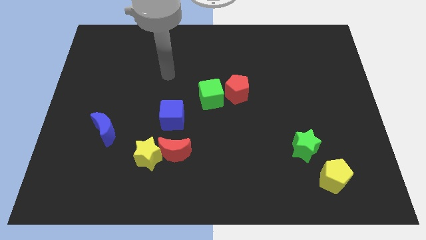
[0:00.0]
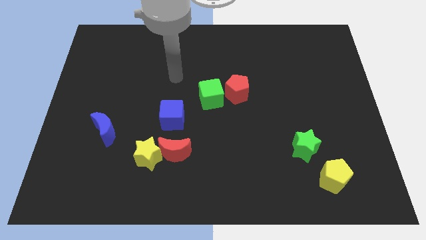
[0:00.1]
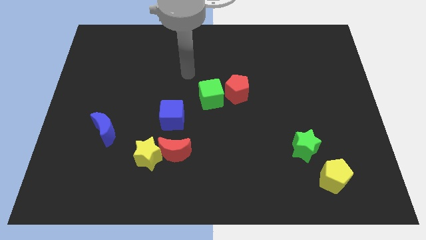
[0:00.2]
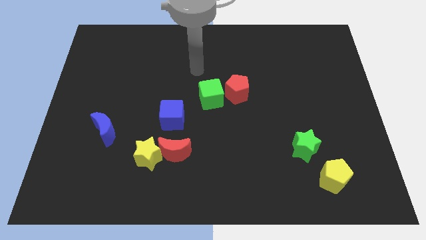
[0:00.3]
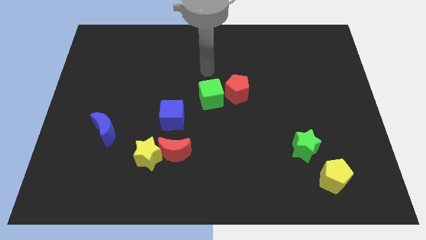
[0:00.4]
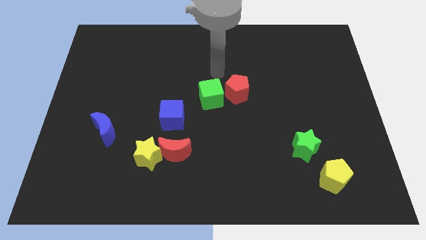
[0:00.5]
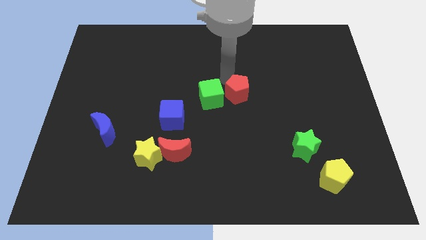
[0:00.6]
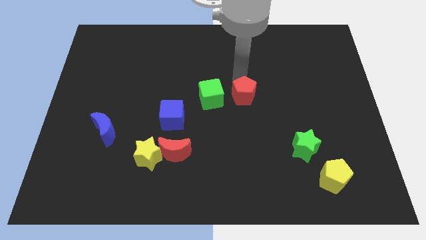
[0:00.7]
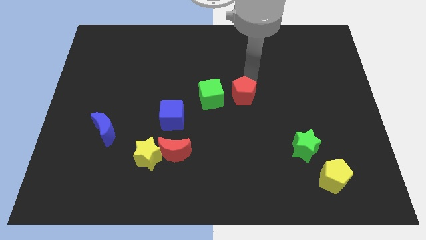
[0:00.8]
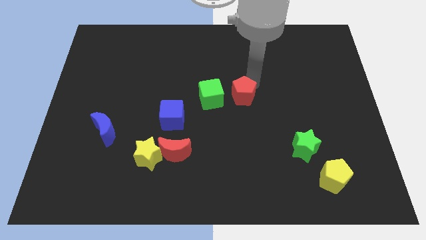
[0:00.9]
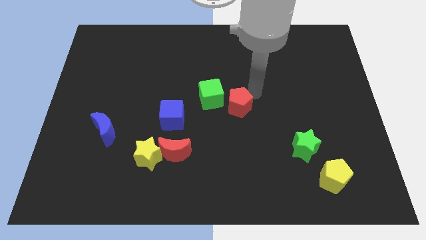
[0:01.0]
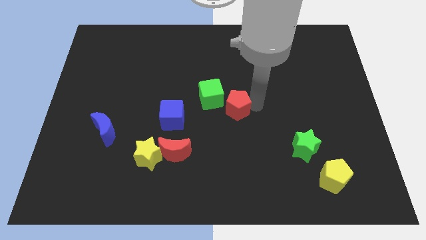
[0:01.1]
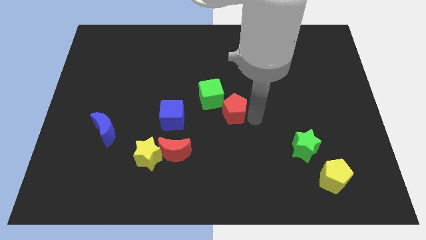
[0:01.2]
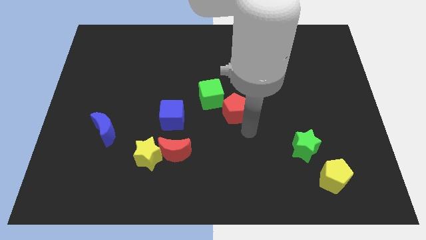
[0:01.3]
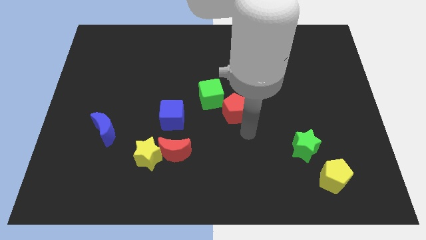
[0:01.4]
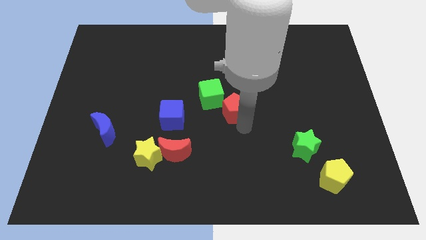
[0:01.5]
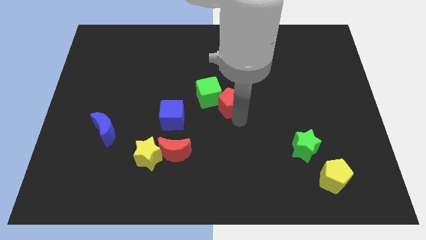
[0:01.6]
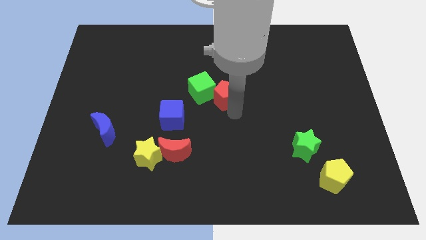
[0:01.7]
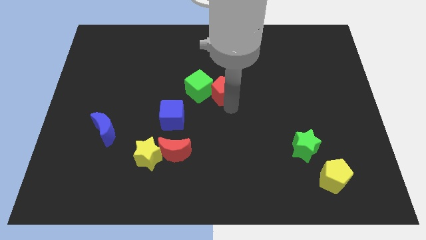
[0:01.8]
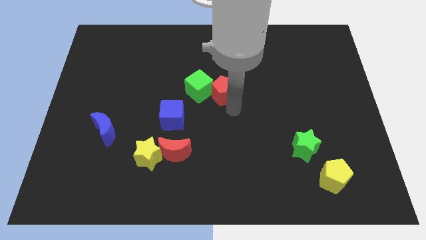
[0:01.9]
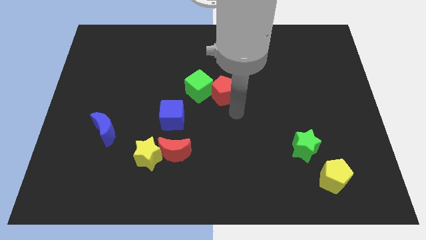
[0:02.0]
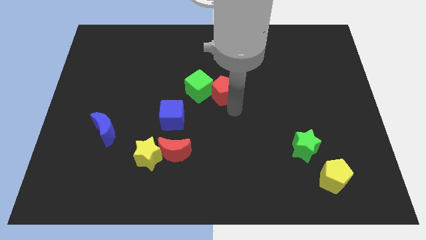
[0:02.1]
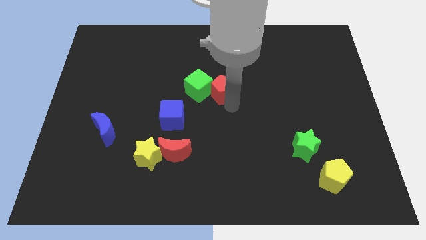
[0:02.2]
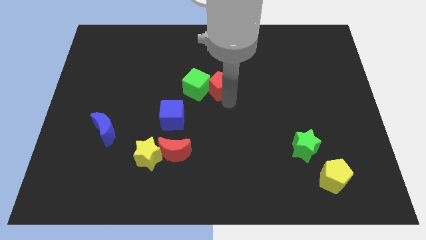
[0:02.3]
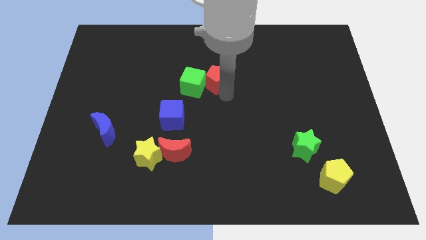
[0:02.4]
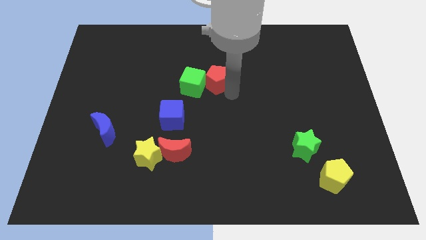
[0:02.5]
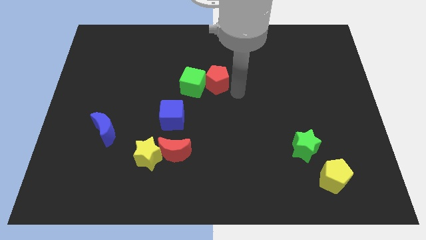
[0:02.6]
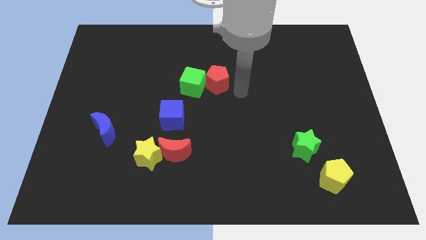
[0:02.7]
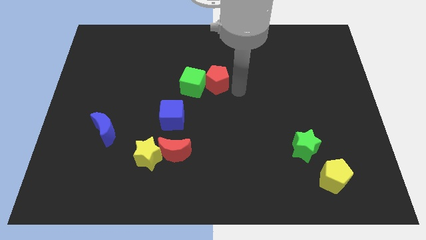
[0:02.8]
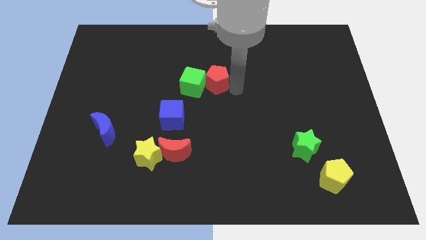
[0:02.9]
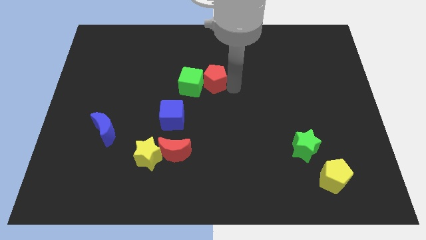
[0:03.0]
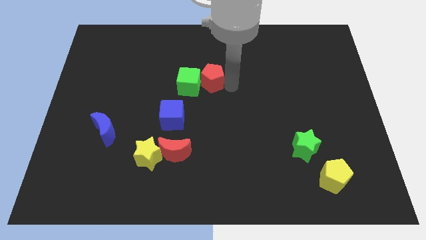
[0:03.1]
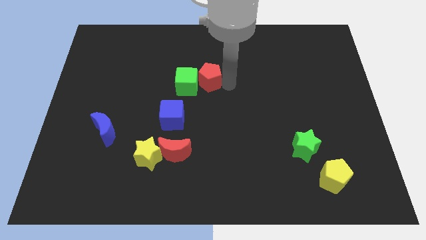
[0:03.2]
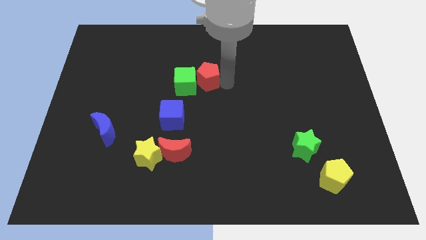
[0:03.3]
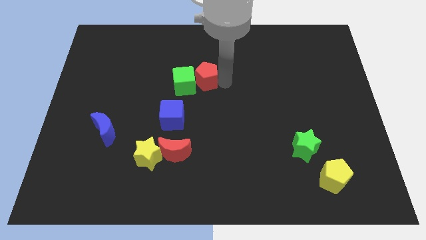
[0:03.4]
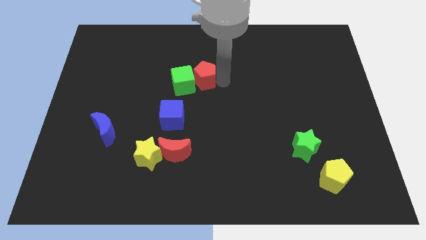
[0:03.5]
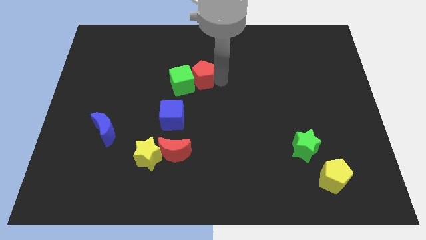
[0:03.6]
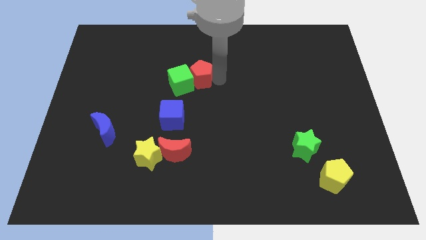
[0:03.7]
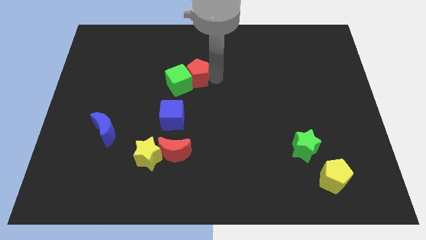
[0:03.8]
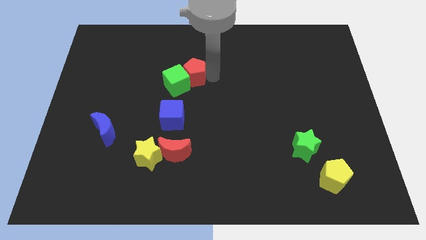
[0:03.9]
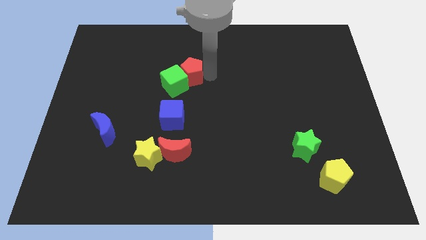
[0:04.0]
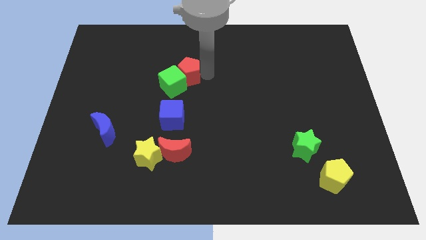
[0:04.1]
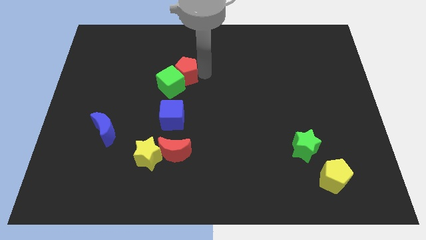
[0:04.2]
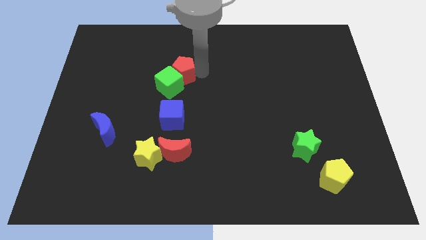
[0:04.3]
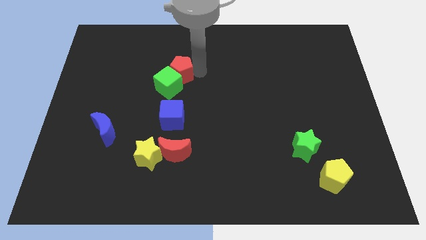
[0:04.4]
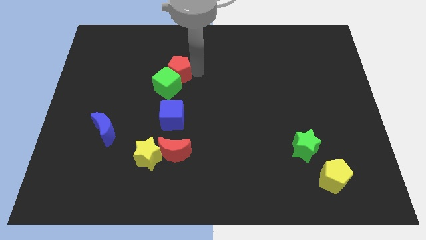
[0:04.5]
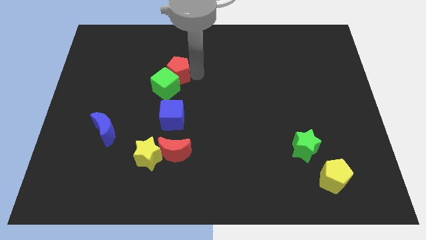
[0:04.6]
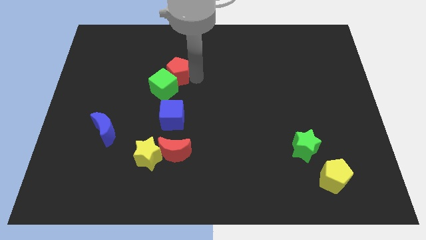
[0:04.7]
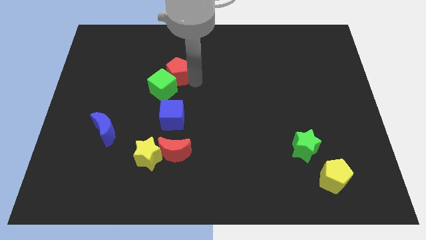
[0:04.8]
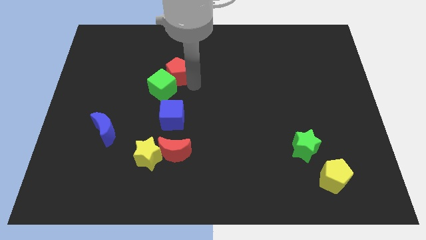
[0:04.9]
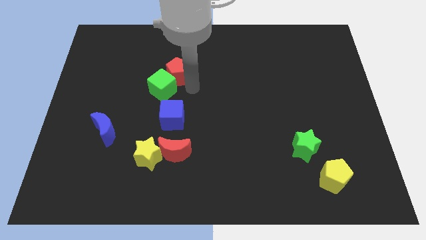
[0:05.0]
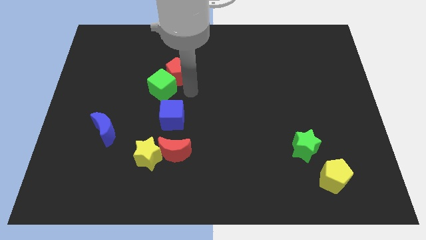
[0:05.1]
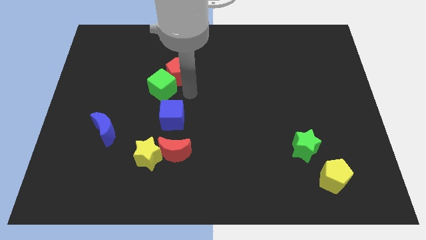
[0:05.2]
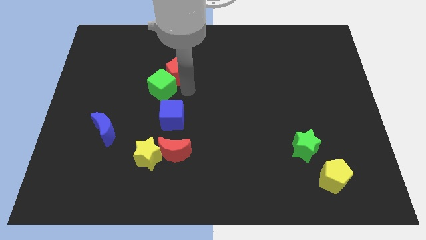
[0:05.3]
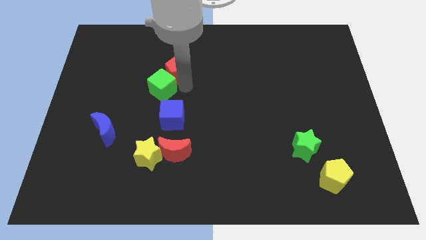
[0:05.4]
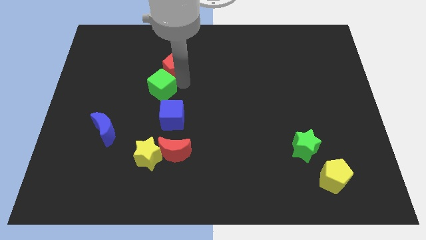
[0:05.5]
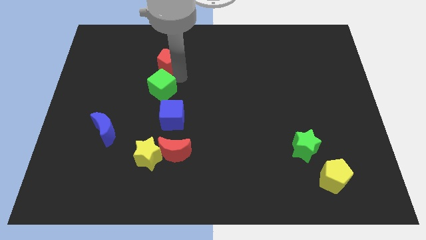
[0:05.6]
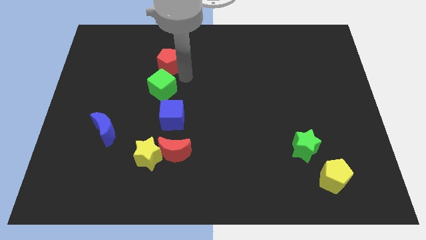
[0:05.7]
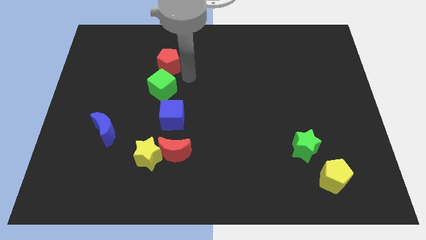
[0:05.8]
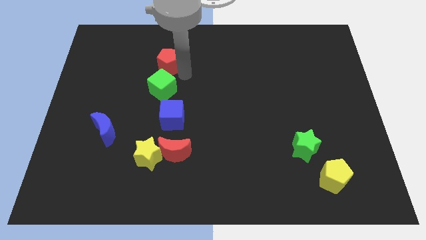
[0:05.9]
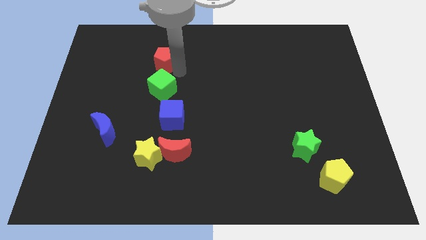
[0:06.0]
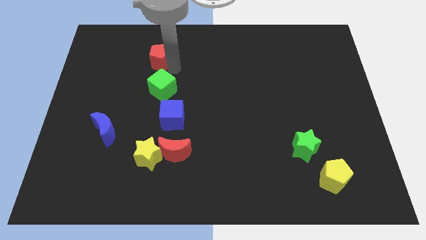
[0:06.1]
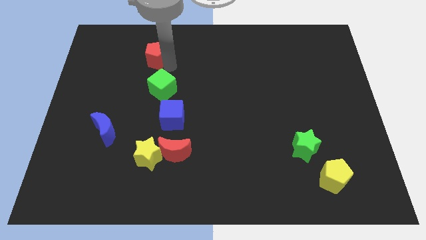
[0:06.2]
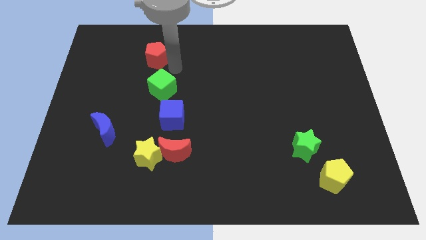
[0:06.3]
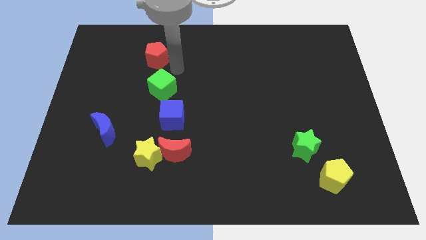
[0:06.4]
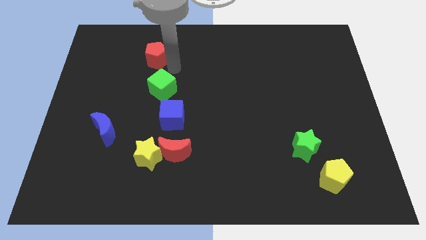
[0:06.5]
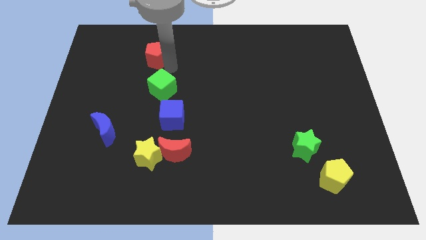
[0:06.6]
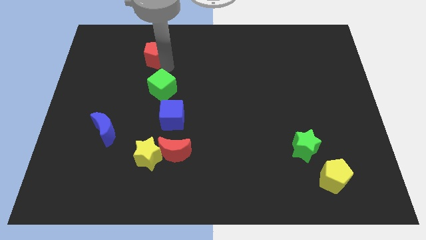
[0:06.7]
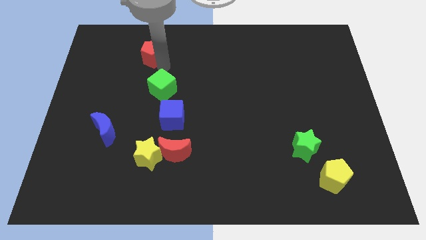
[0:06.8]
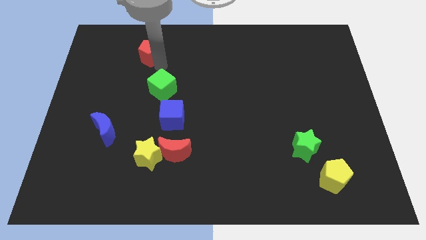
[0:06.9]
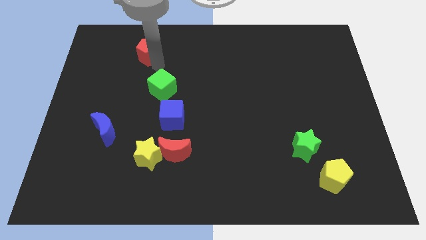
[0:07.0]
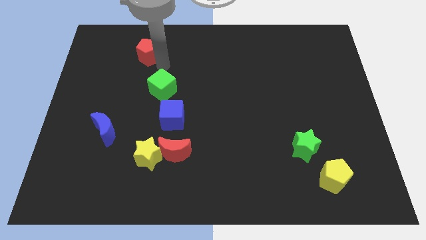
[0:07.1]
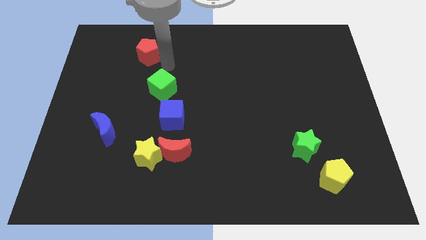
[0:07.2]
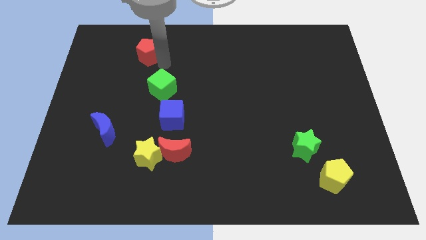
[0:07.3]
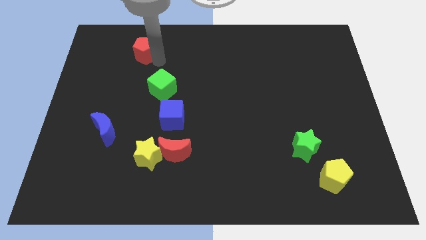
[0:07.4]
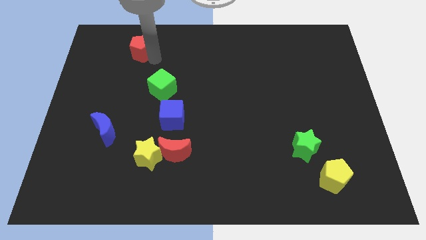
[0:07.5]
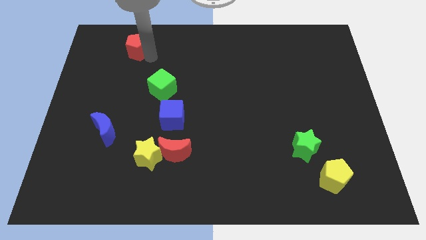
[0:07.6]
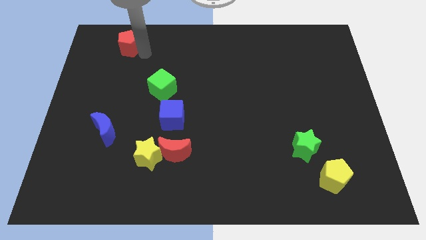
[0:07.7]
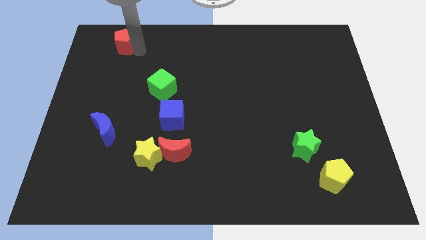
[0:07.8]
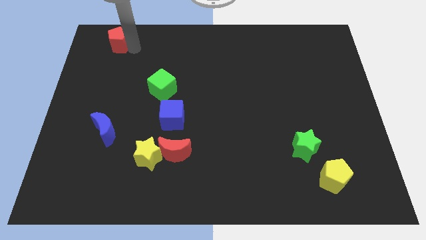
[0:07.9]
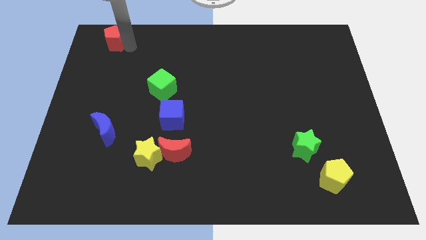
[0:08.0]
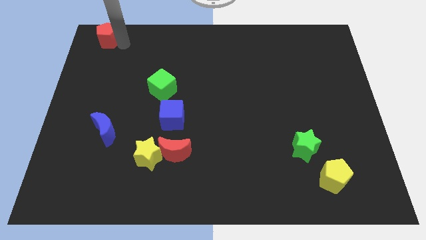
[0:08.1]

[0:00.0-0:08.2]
push the red pentagon to the top left of the board
